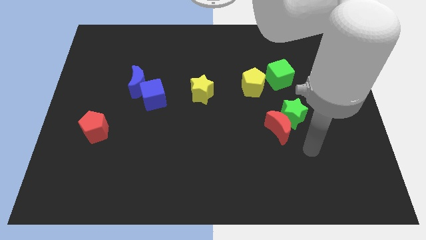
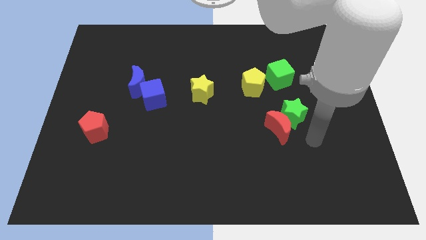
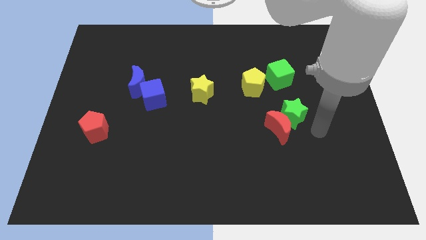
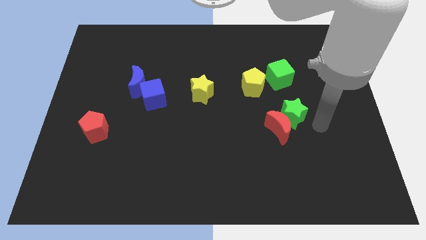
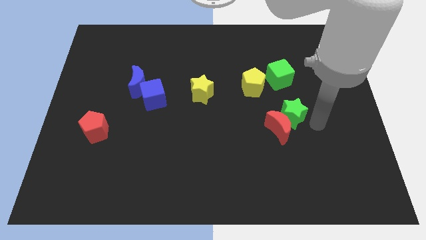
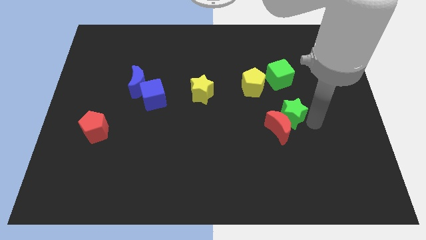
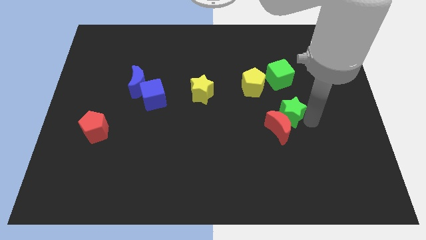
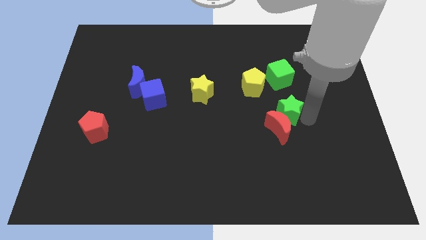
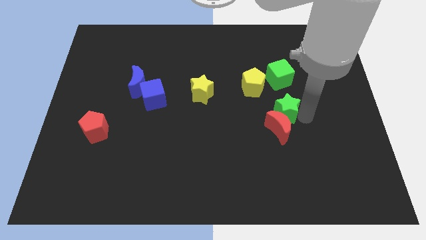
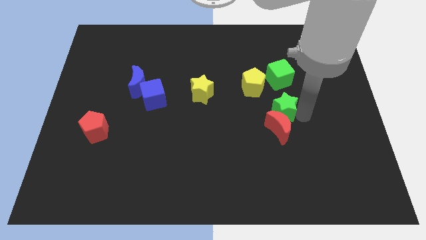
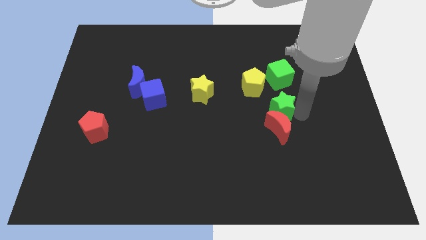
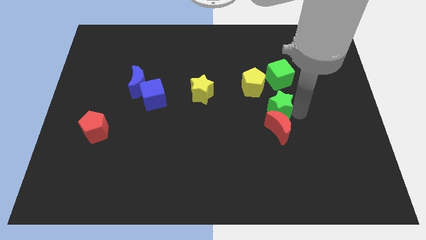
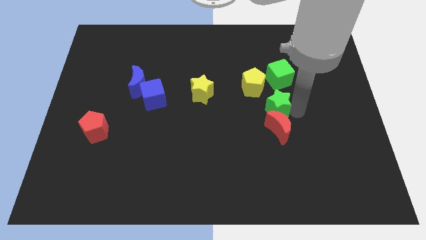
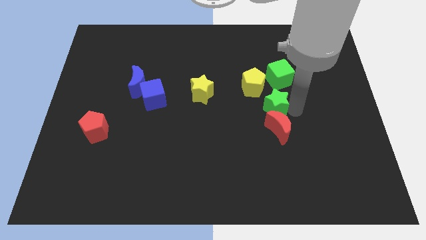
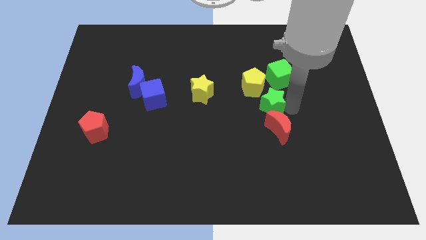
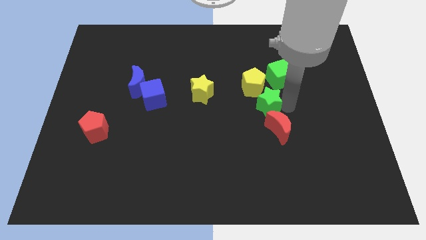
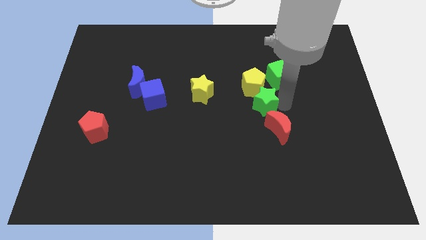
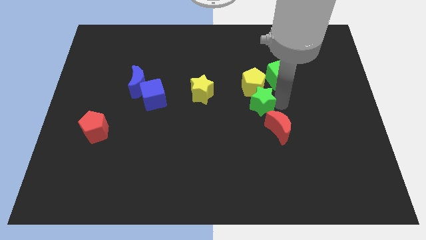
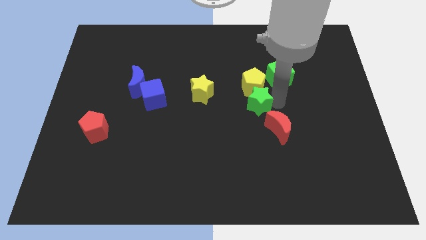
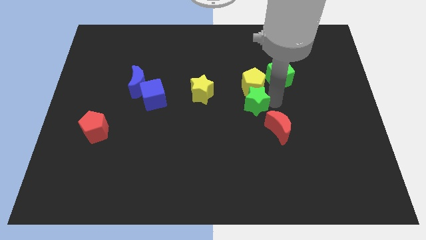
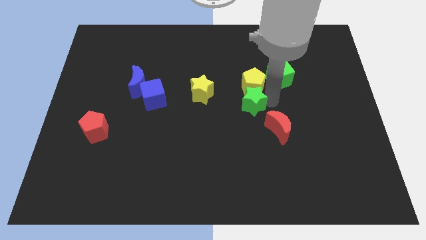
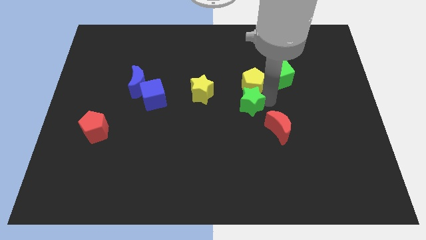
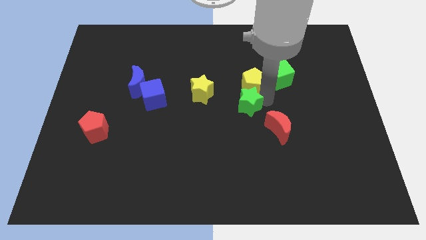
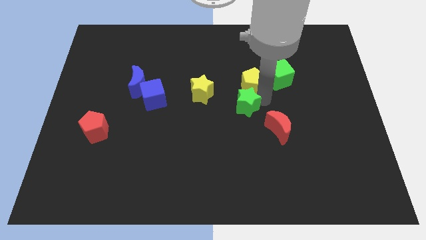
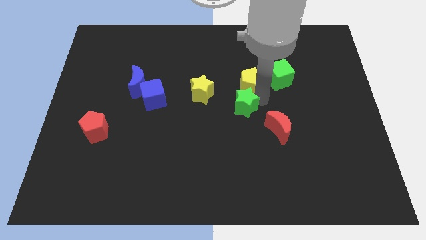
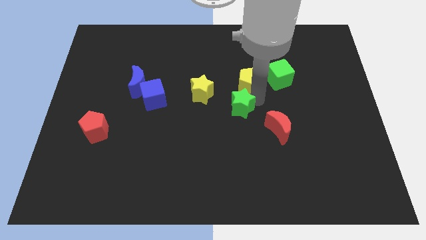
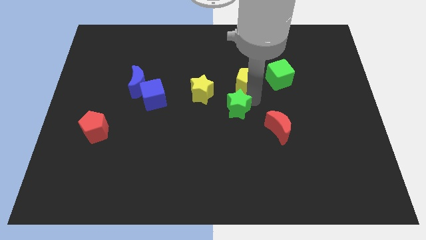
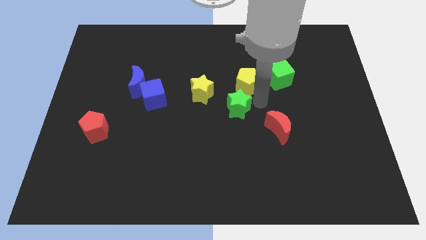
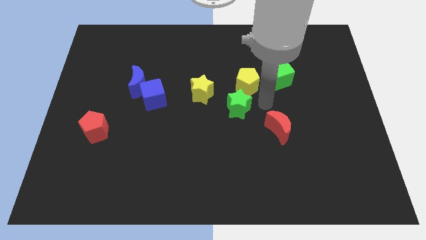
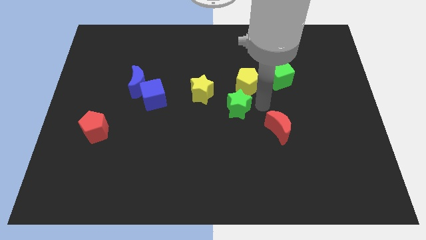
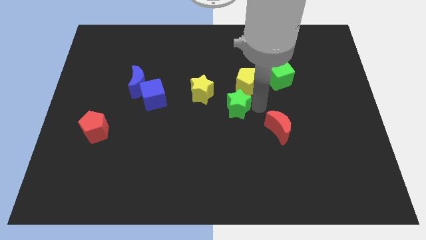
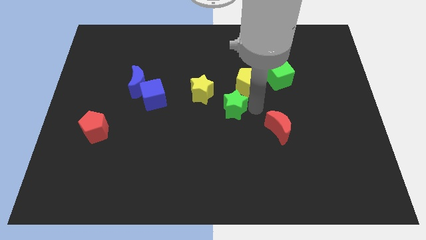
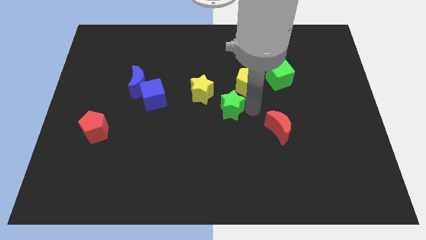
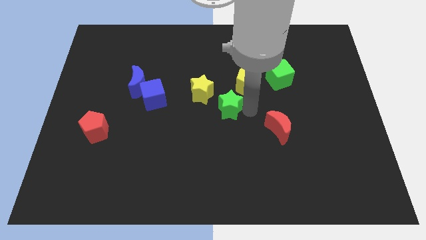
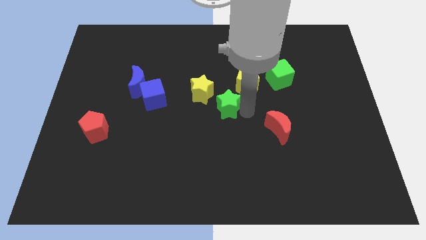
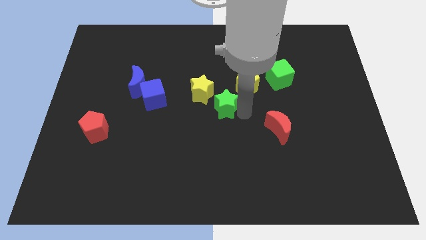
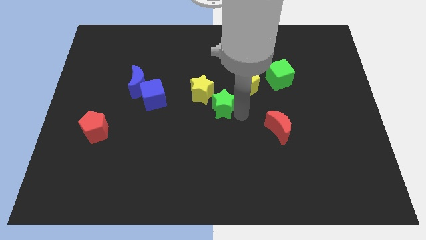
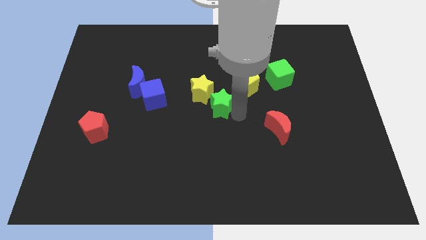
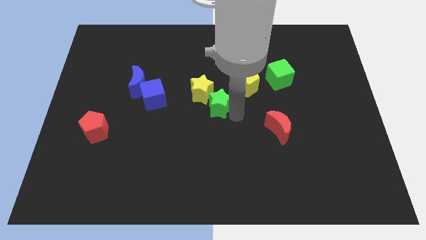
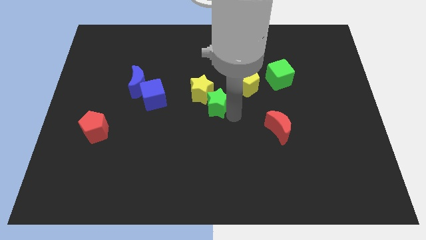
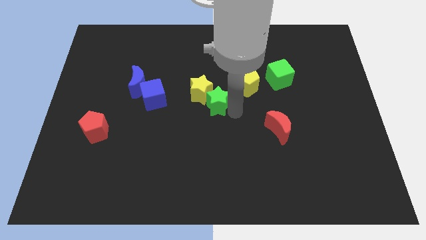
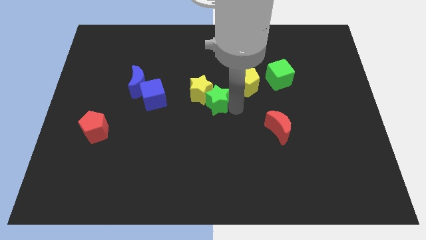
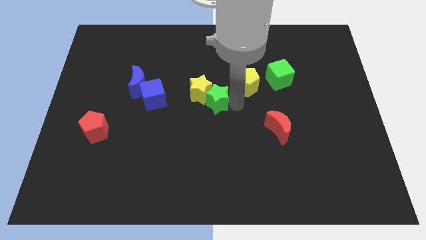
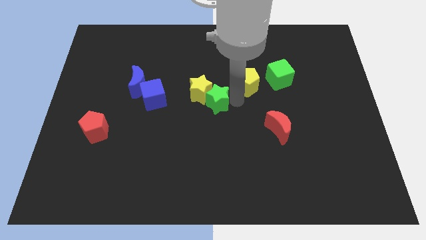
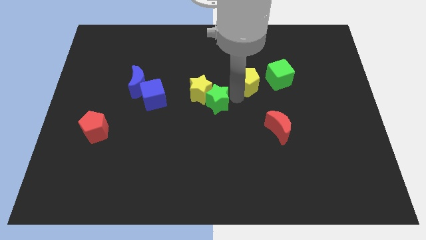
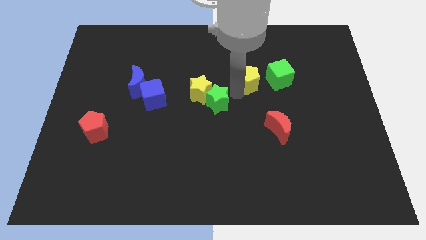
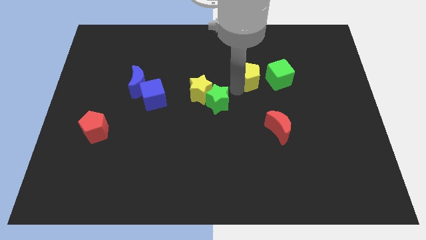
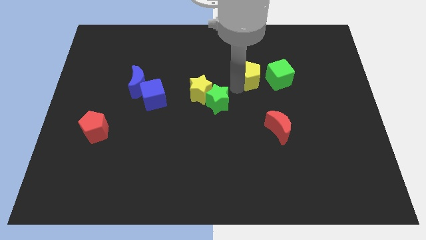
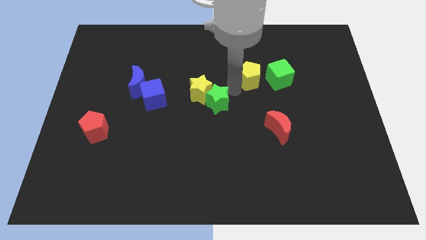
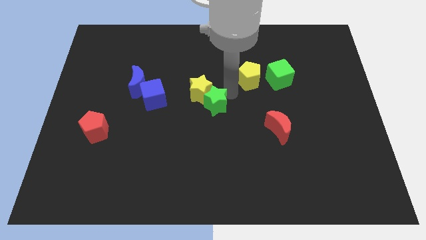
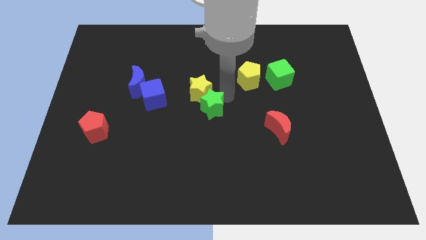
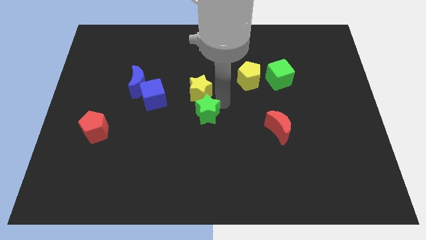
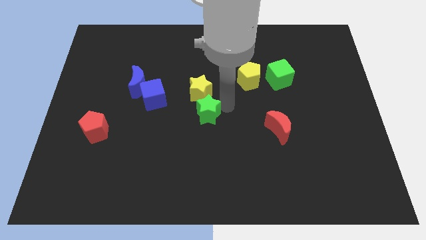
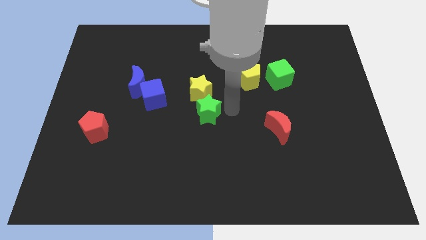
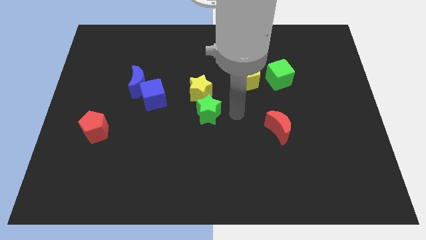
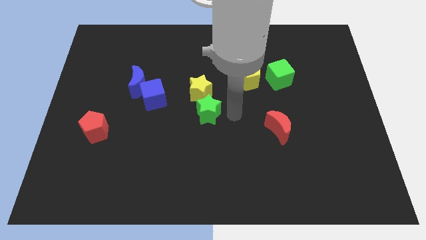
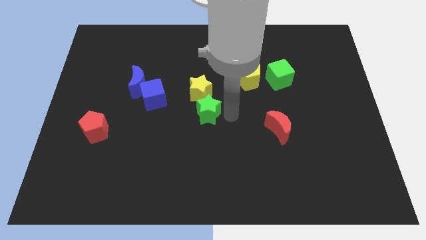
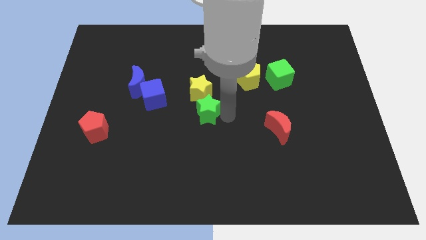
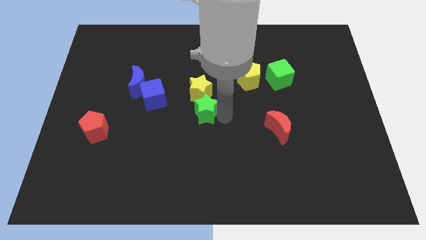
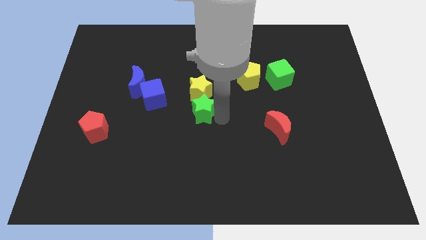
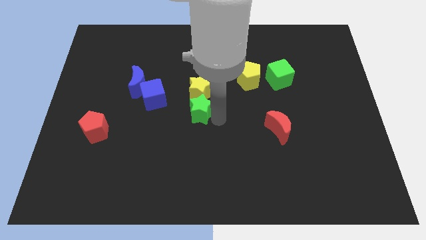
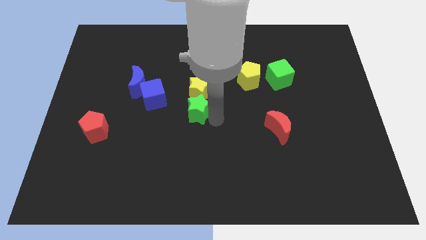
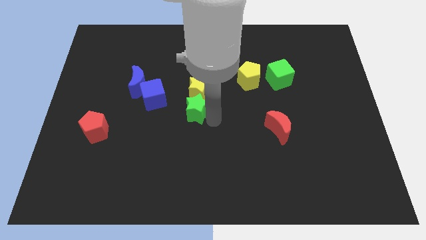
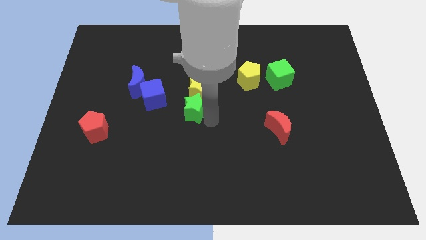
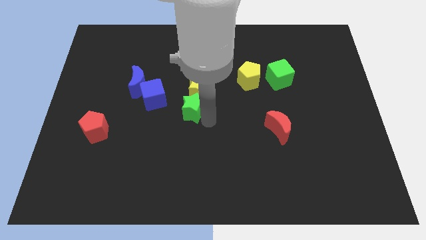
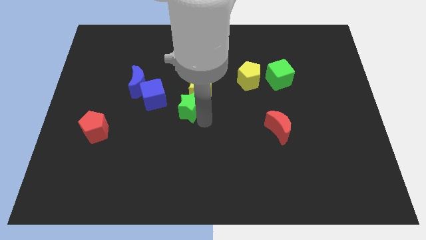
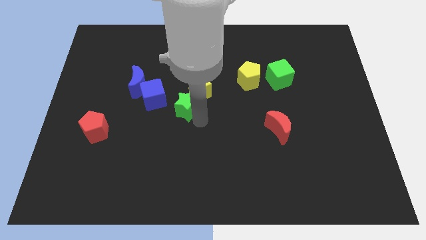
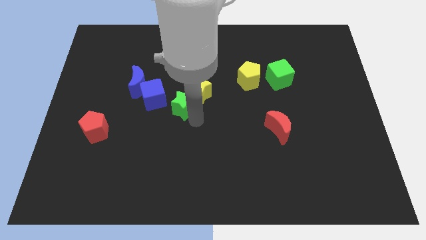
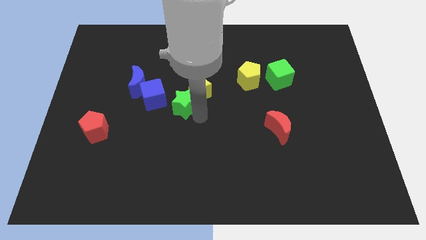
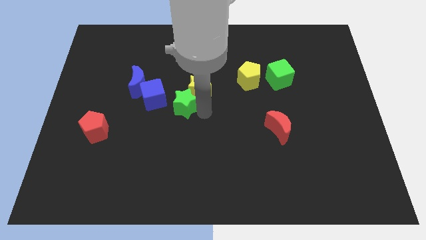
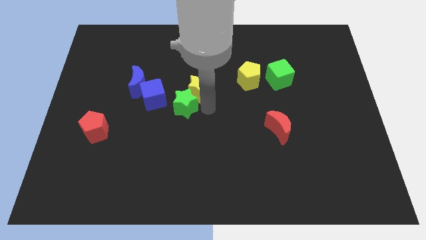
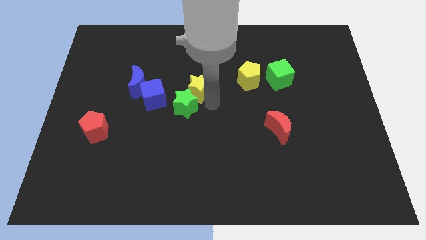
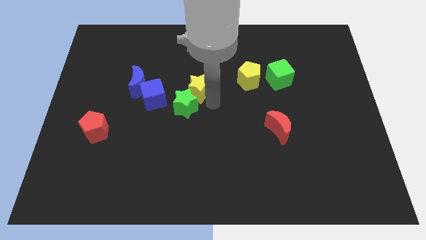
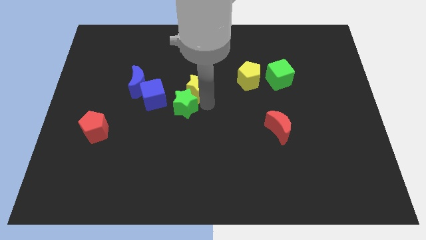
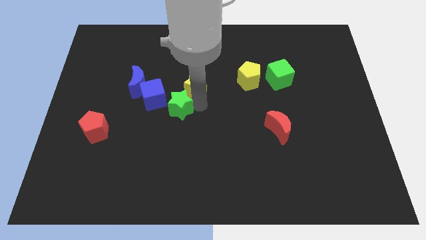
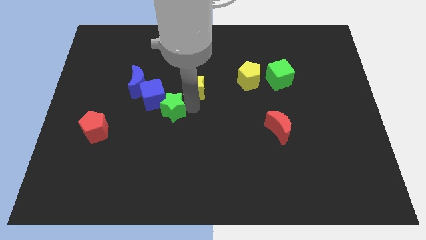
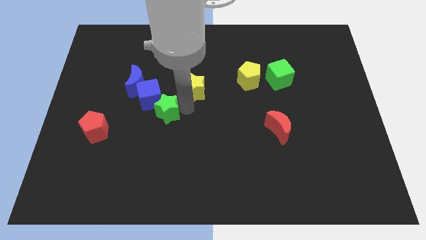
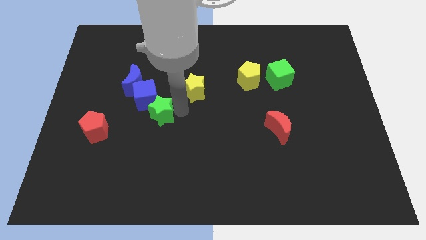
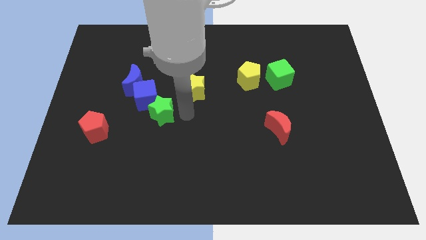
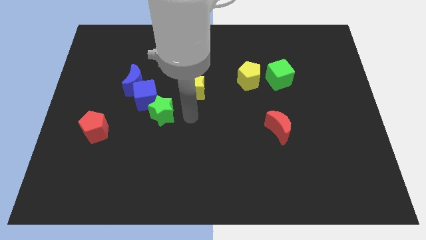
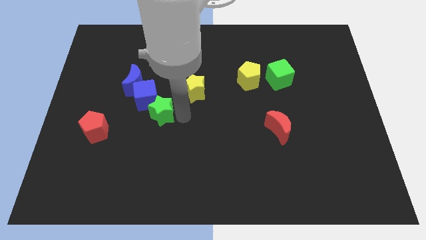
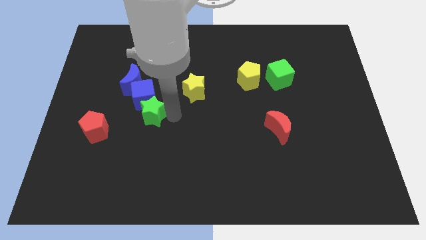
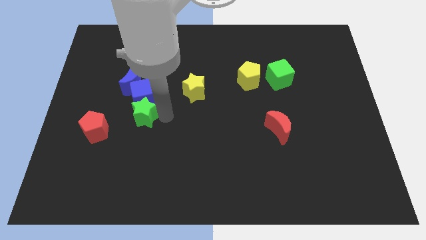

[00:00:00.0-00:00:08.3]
push the green star diagonally up and to the right of the red pentagon
